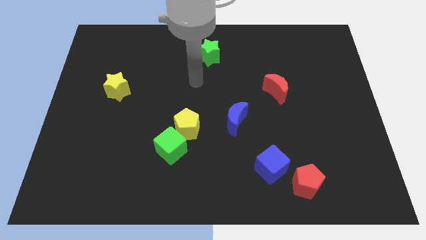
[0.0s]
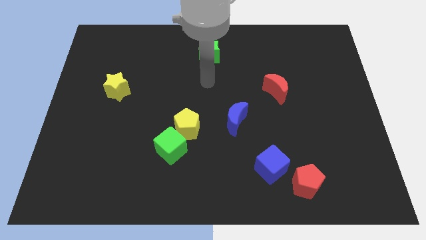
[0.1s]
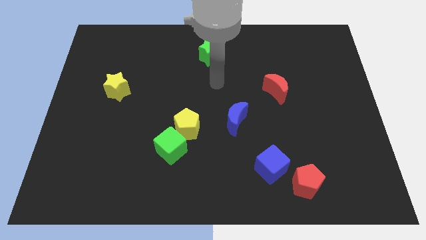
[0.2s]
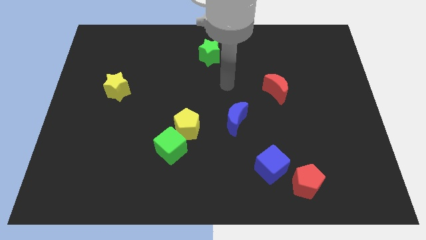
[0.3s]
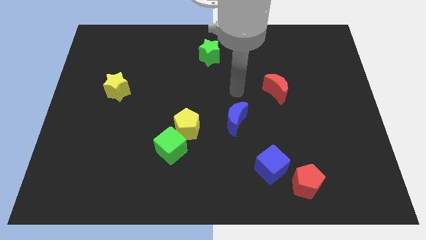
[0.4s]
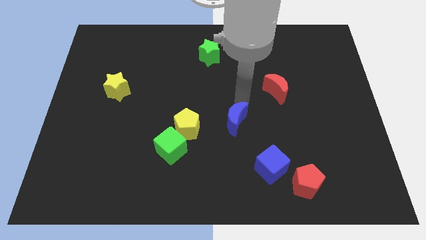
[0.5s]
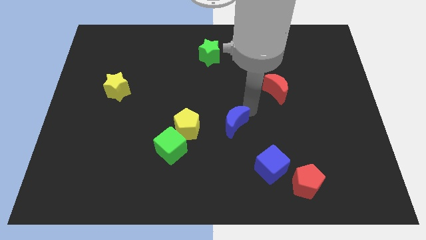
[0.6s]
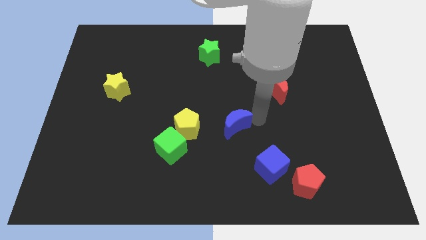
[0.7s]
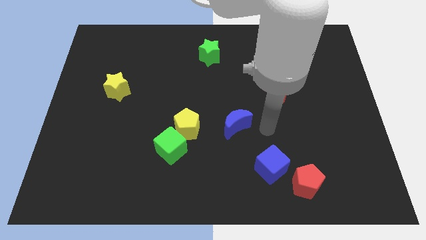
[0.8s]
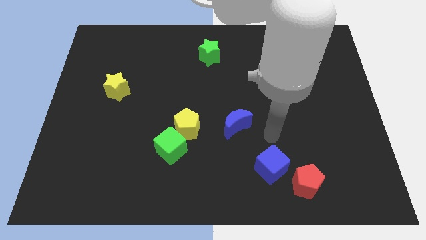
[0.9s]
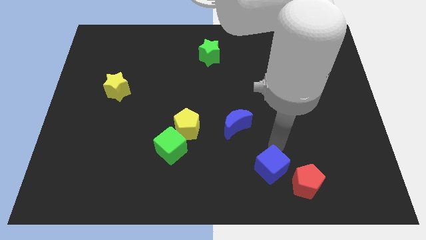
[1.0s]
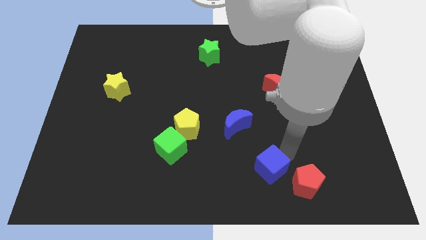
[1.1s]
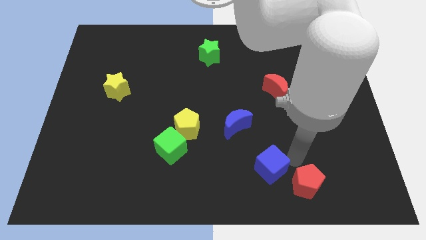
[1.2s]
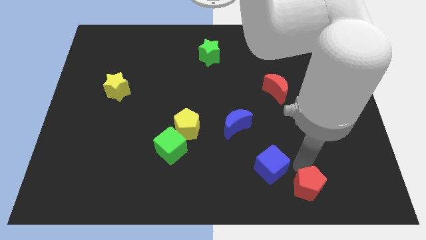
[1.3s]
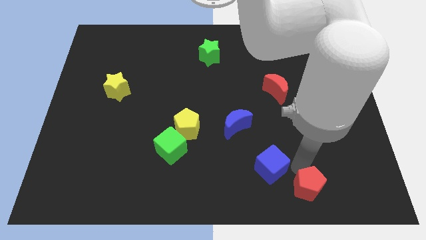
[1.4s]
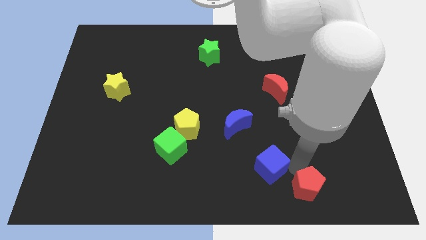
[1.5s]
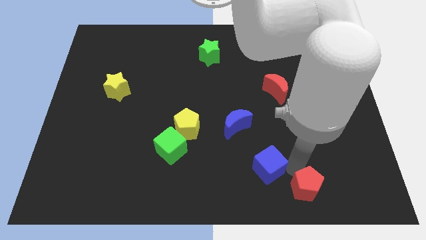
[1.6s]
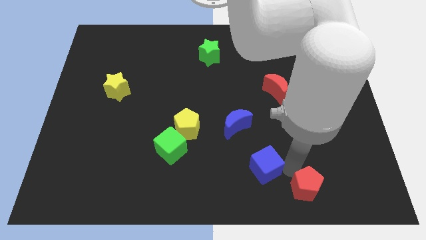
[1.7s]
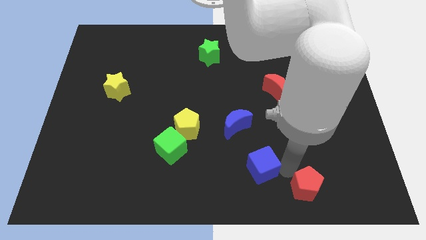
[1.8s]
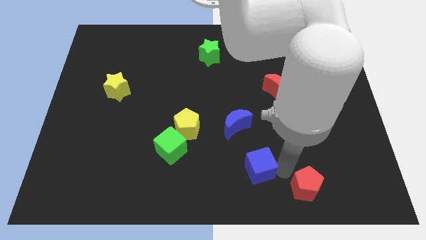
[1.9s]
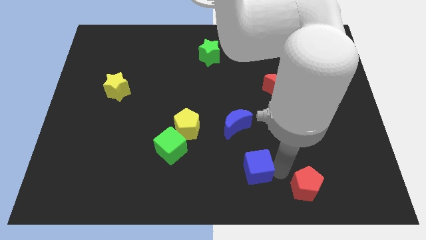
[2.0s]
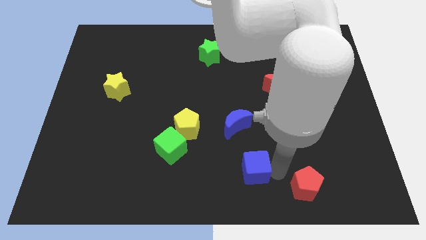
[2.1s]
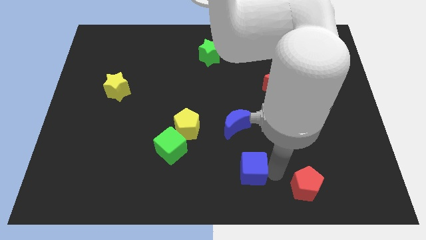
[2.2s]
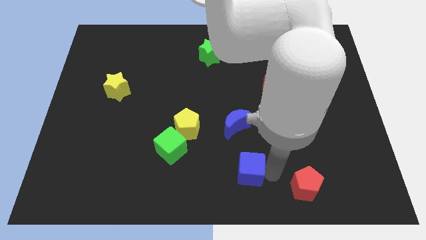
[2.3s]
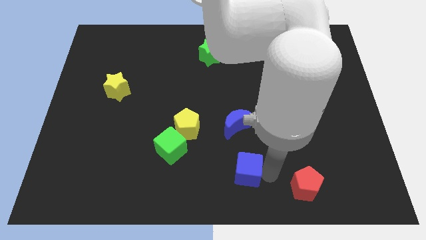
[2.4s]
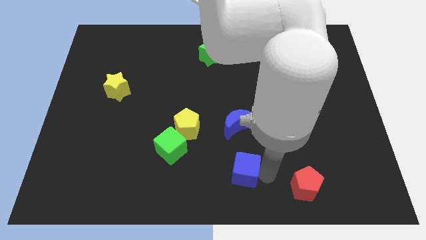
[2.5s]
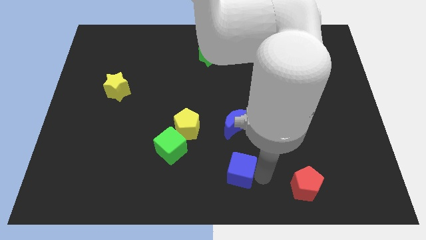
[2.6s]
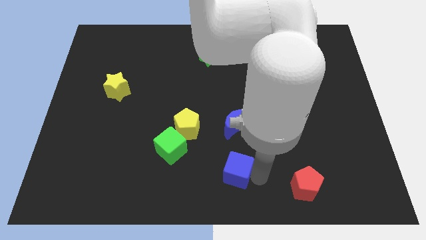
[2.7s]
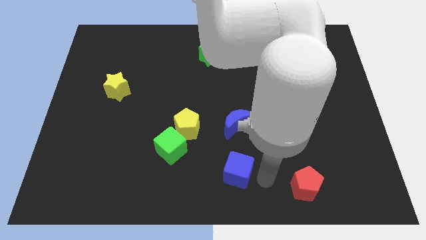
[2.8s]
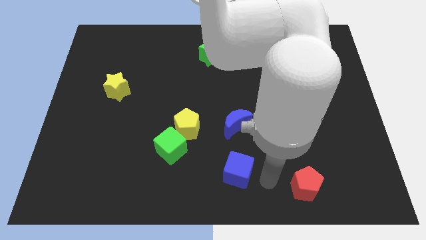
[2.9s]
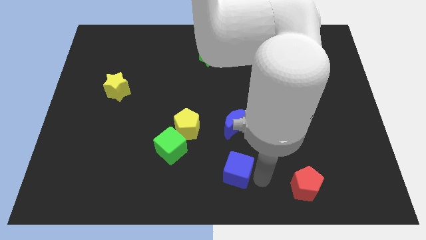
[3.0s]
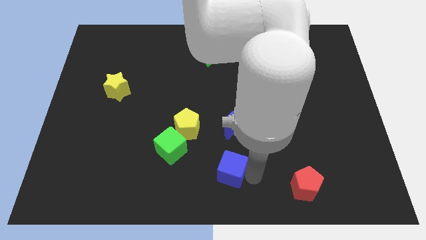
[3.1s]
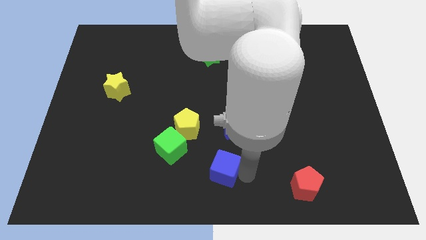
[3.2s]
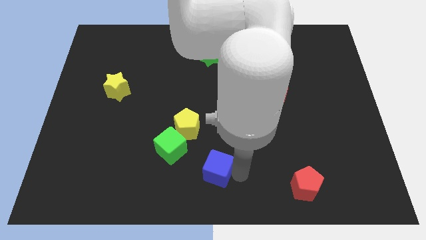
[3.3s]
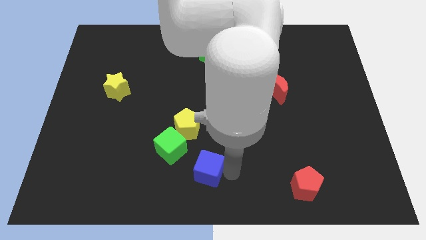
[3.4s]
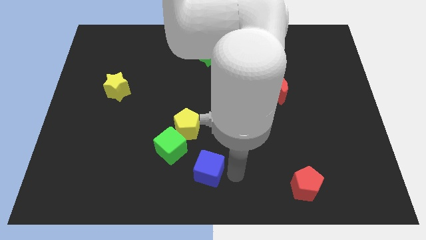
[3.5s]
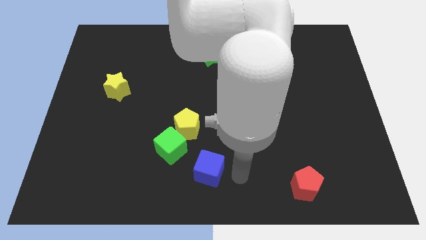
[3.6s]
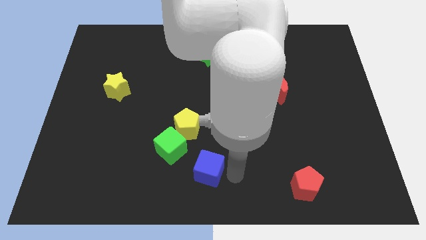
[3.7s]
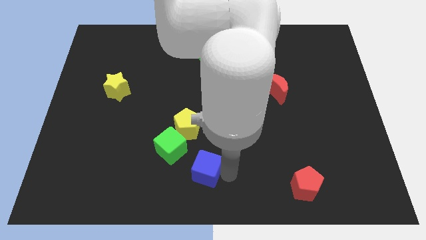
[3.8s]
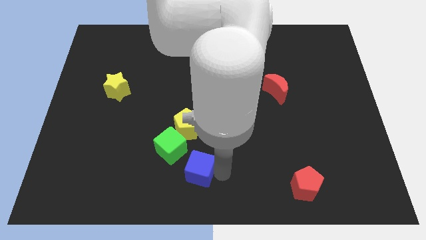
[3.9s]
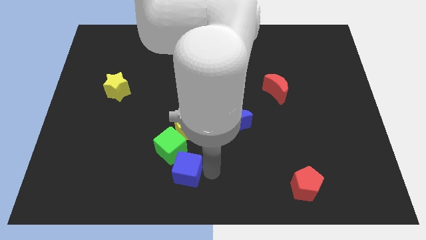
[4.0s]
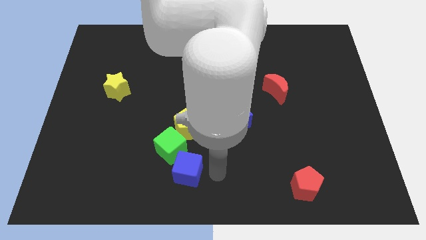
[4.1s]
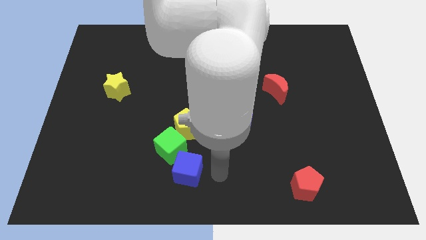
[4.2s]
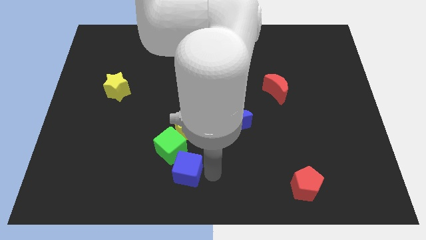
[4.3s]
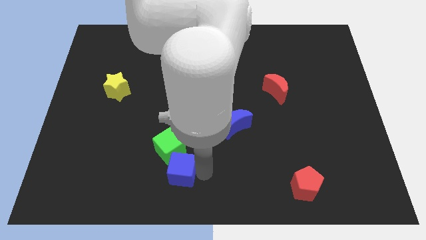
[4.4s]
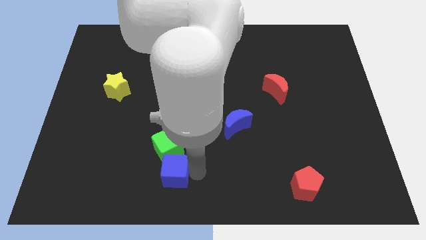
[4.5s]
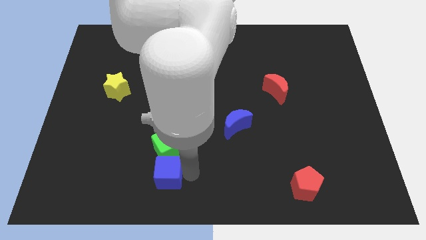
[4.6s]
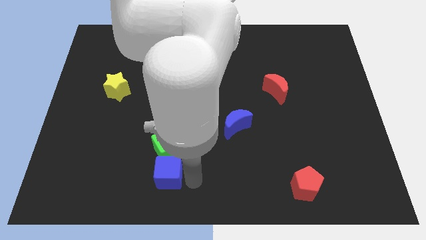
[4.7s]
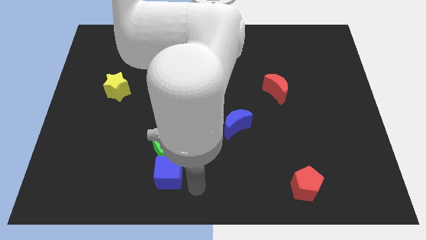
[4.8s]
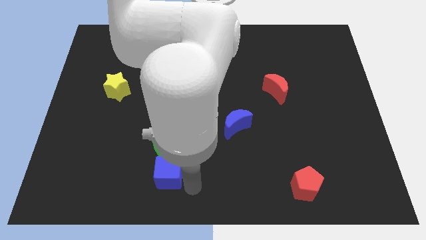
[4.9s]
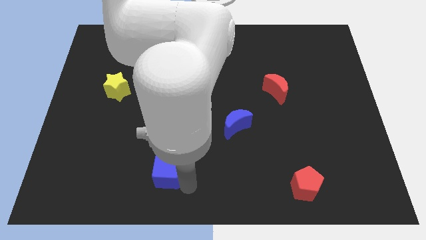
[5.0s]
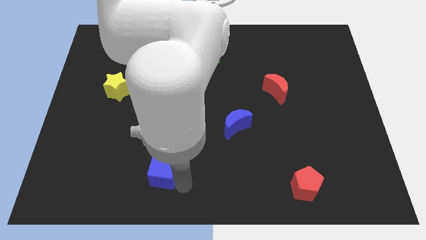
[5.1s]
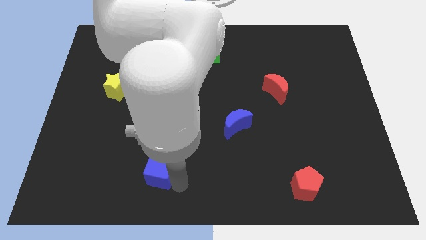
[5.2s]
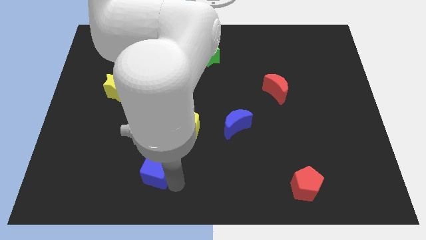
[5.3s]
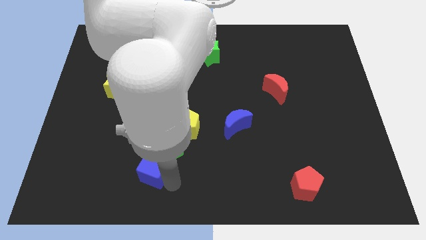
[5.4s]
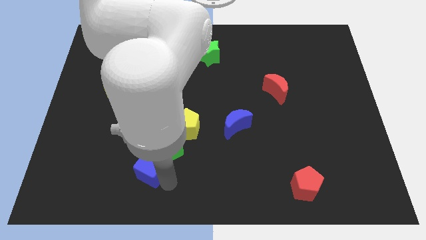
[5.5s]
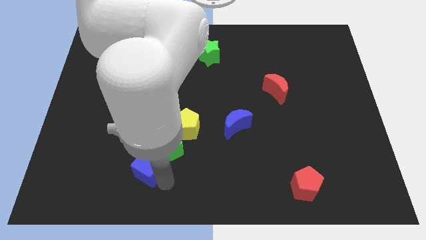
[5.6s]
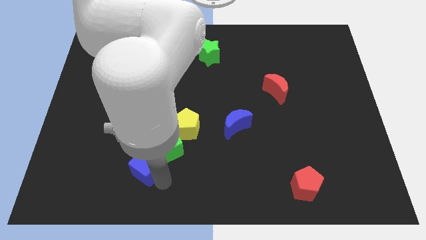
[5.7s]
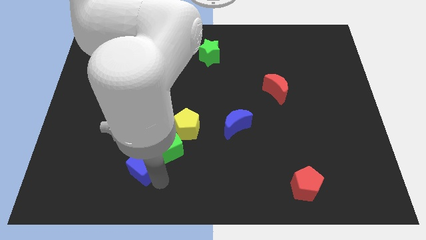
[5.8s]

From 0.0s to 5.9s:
move the blue cube to the left side of the green cube

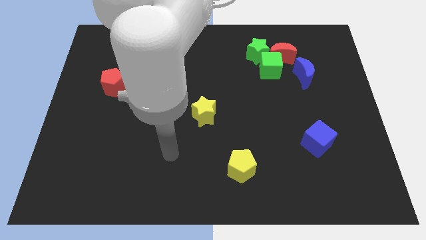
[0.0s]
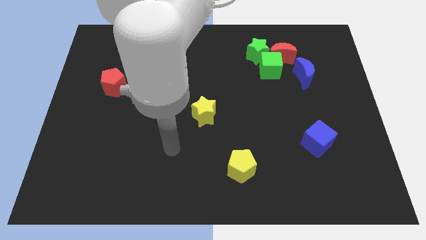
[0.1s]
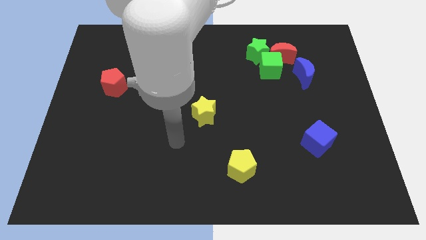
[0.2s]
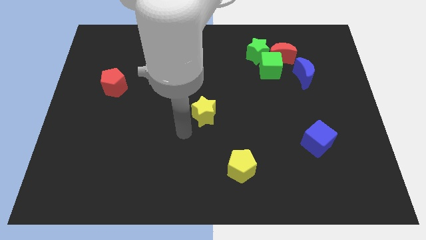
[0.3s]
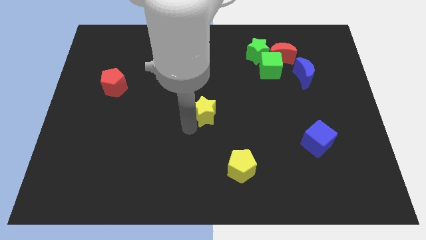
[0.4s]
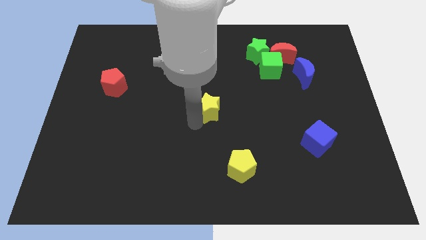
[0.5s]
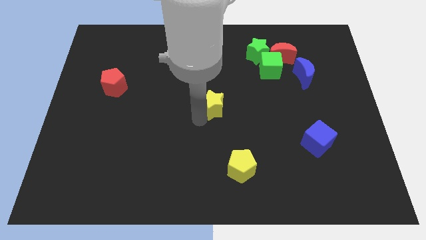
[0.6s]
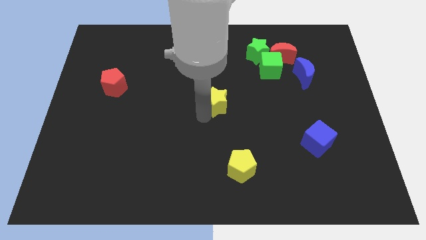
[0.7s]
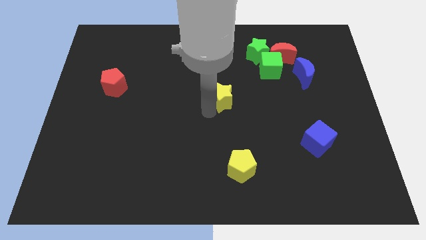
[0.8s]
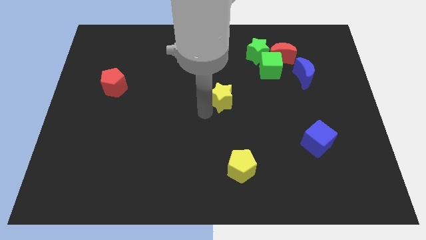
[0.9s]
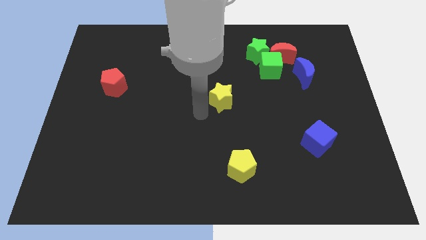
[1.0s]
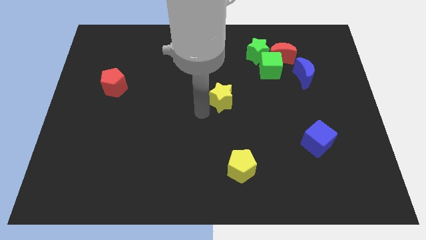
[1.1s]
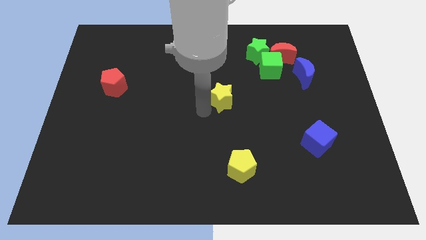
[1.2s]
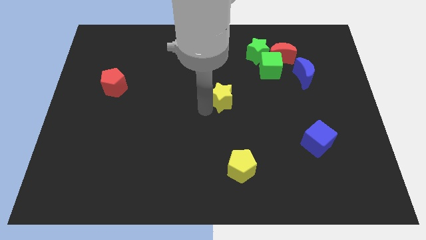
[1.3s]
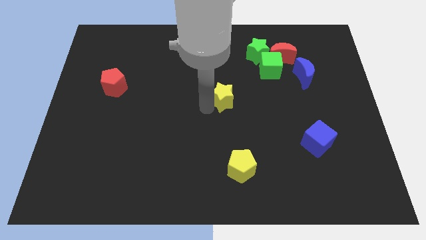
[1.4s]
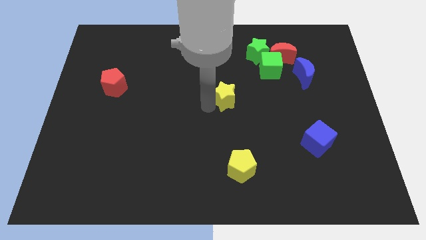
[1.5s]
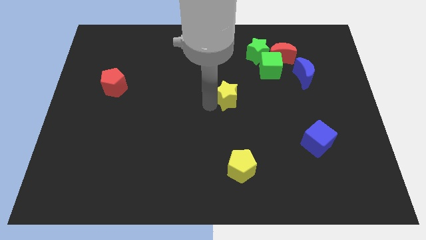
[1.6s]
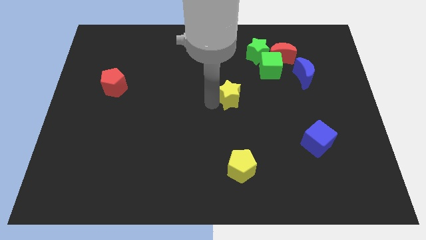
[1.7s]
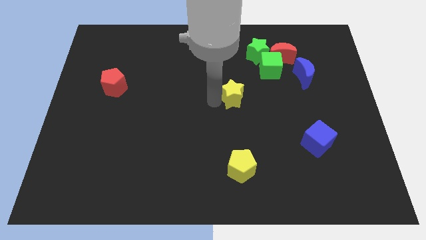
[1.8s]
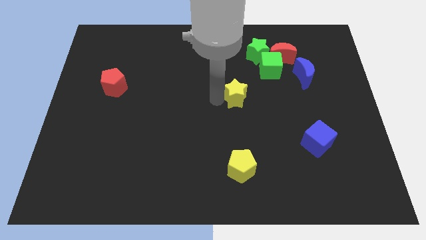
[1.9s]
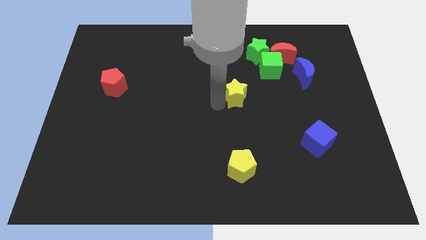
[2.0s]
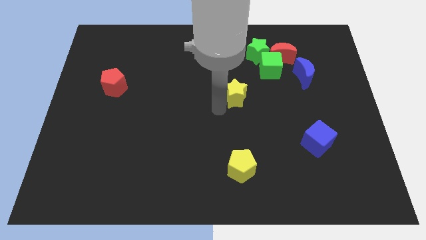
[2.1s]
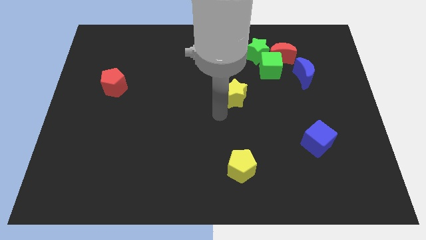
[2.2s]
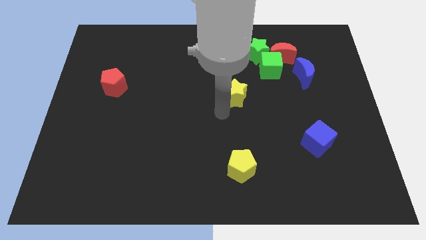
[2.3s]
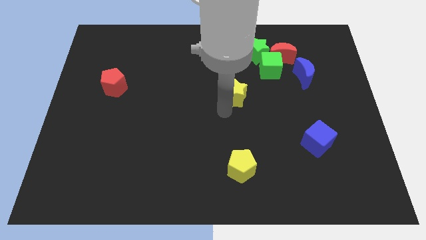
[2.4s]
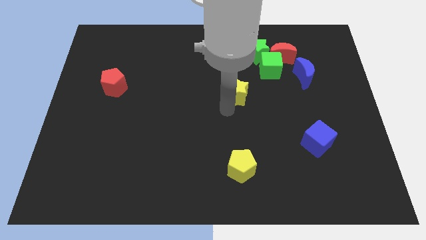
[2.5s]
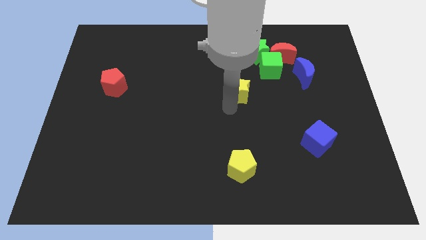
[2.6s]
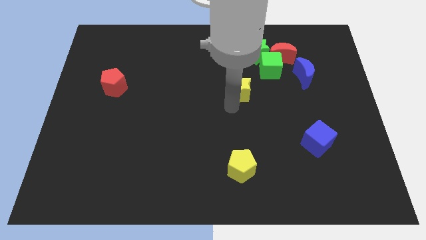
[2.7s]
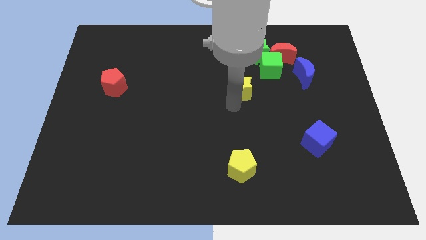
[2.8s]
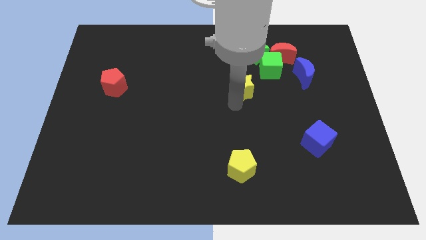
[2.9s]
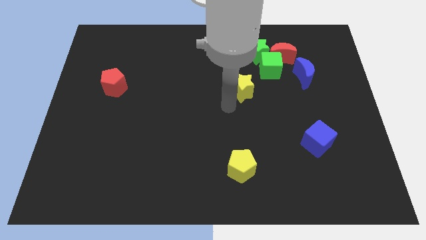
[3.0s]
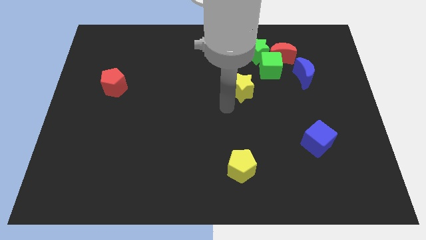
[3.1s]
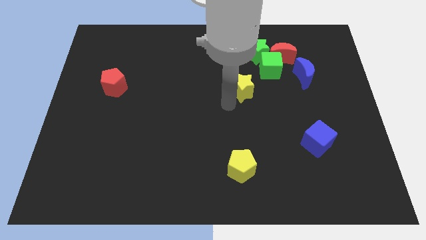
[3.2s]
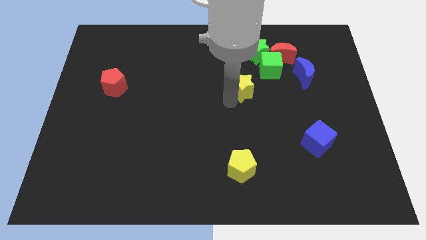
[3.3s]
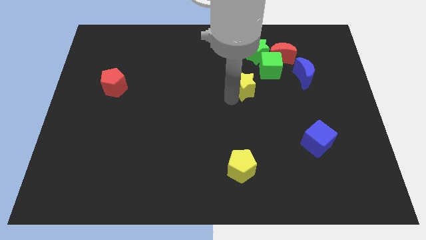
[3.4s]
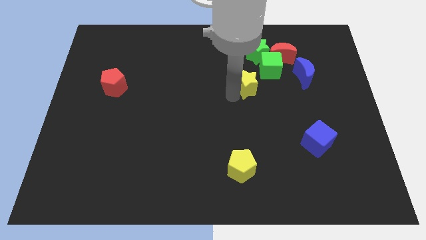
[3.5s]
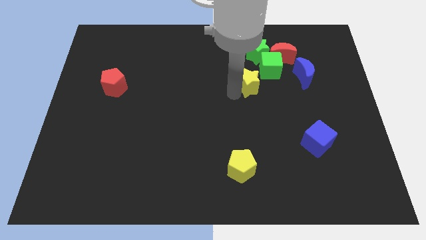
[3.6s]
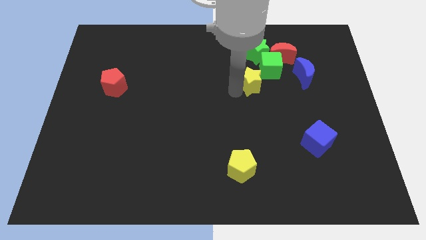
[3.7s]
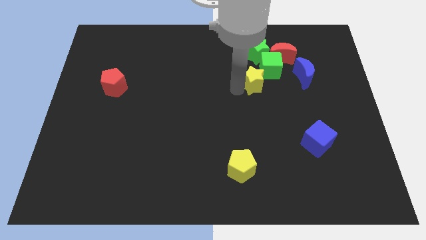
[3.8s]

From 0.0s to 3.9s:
slide the yellow star to the bottom left of the red moon
